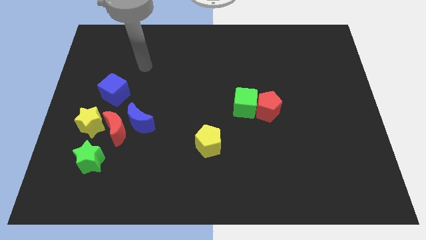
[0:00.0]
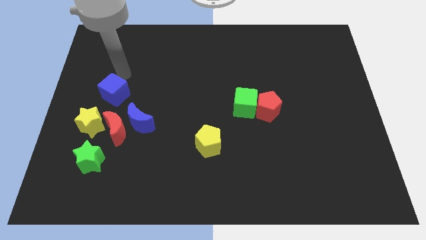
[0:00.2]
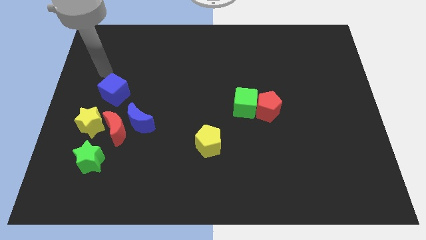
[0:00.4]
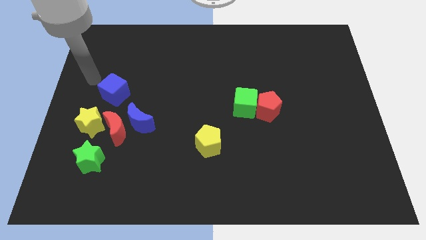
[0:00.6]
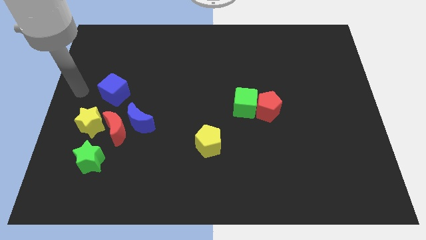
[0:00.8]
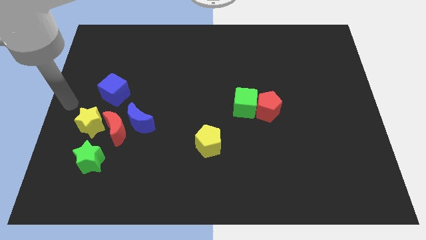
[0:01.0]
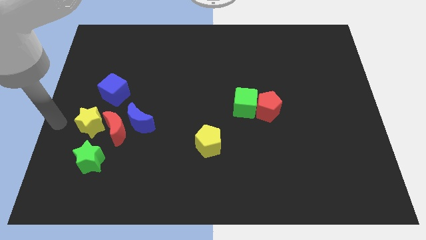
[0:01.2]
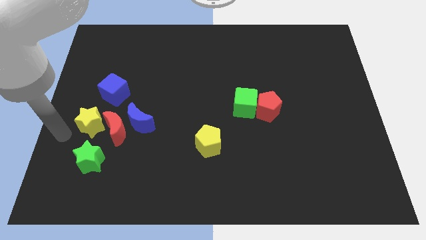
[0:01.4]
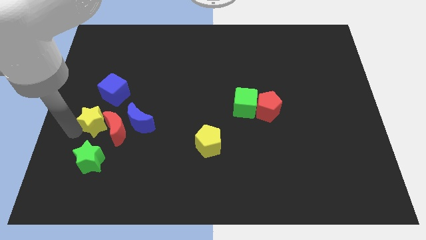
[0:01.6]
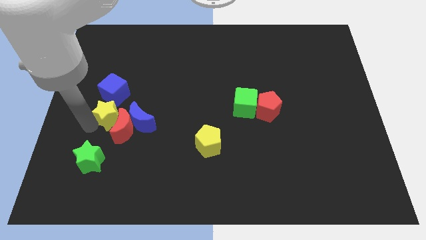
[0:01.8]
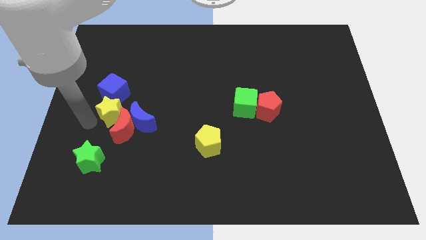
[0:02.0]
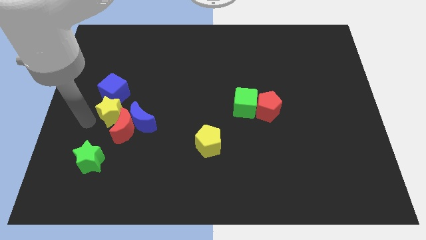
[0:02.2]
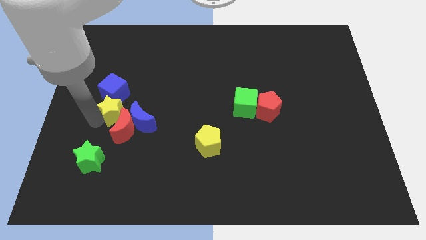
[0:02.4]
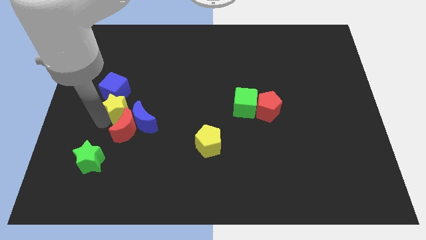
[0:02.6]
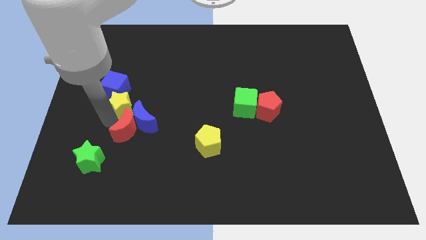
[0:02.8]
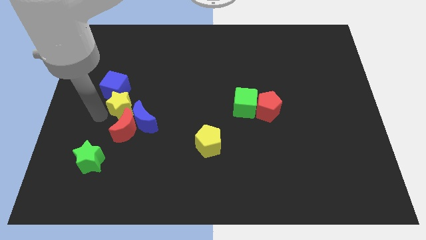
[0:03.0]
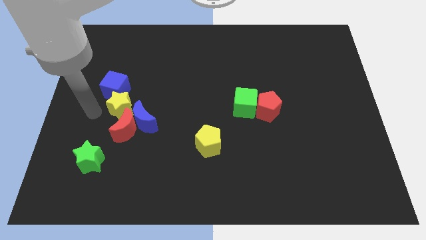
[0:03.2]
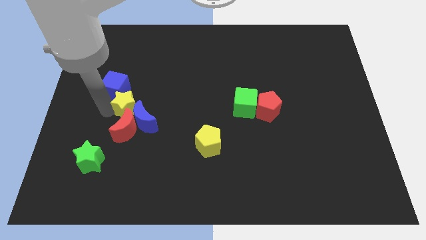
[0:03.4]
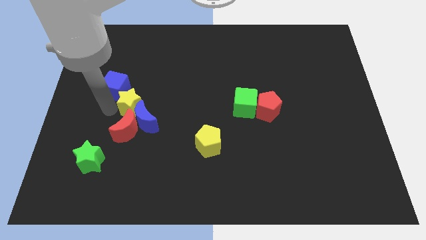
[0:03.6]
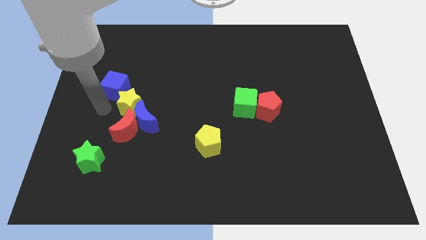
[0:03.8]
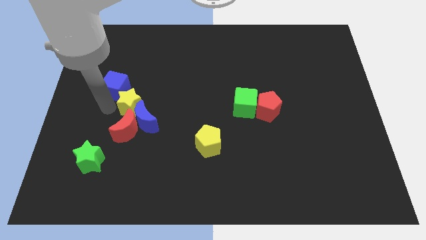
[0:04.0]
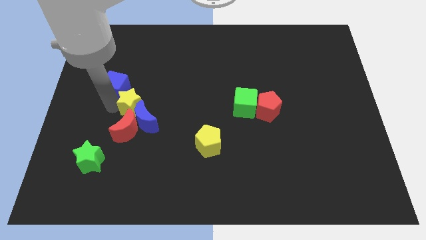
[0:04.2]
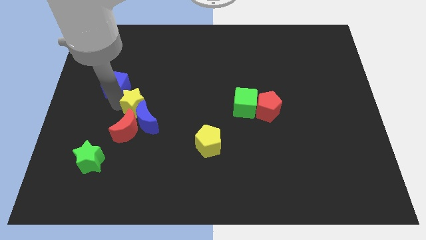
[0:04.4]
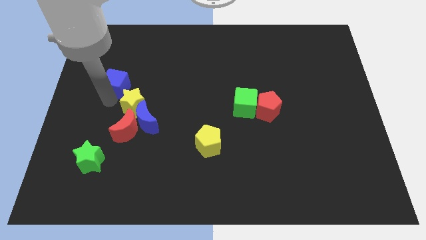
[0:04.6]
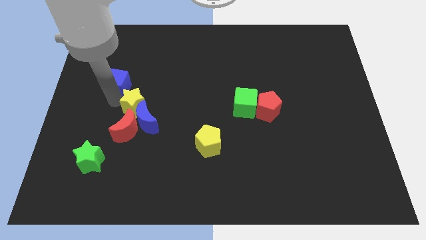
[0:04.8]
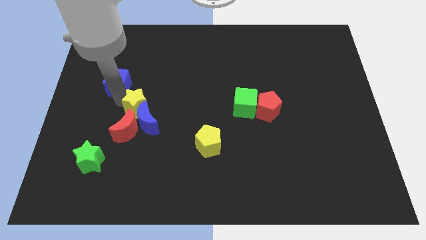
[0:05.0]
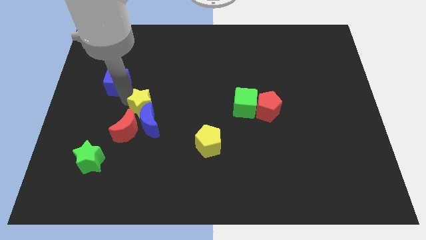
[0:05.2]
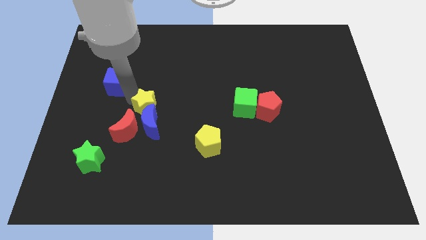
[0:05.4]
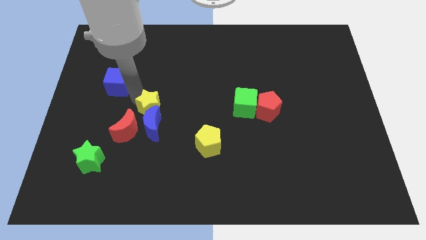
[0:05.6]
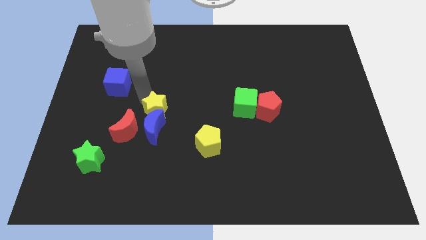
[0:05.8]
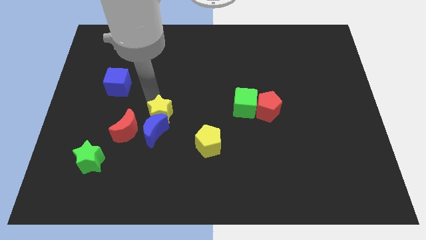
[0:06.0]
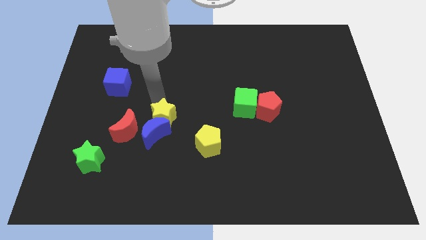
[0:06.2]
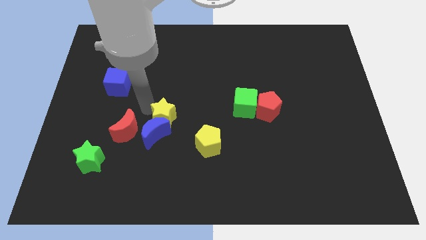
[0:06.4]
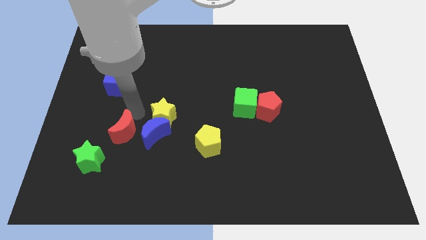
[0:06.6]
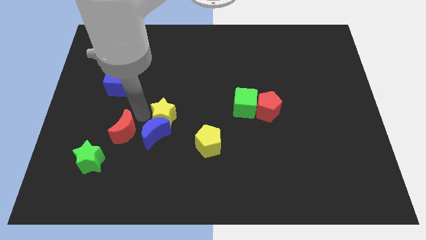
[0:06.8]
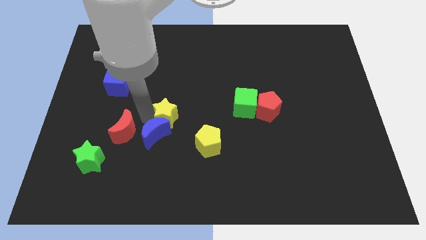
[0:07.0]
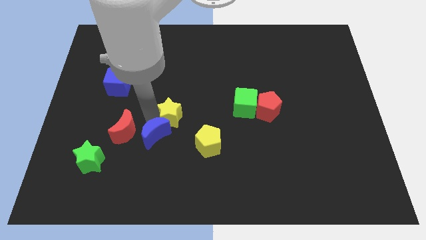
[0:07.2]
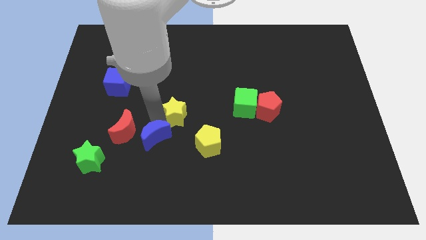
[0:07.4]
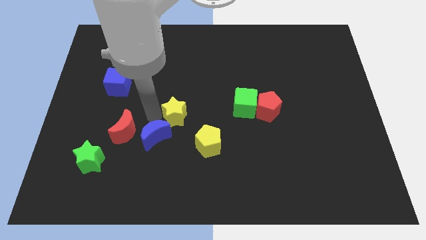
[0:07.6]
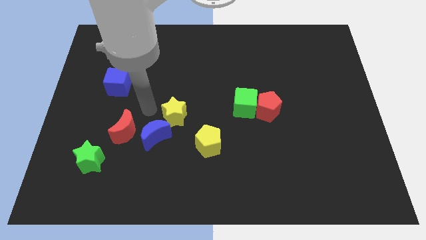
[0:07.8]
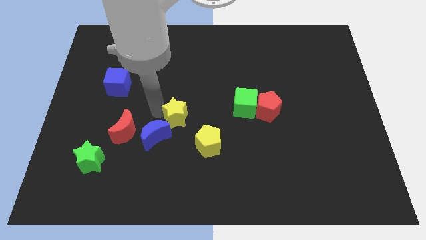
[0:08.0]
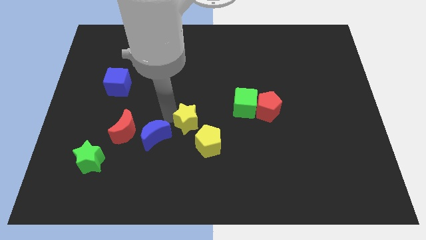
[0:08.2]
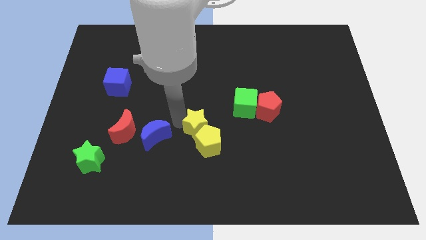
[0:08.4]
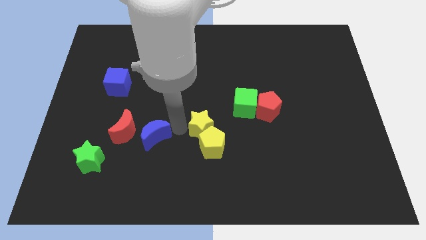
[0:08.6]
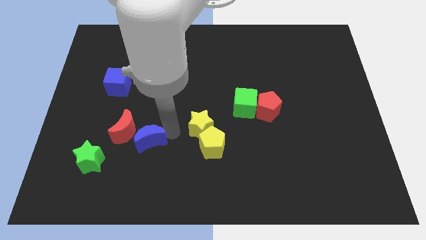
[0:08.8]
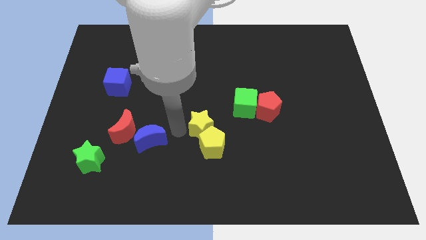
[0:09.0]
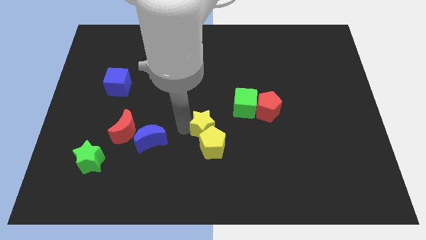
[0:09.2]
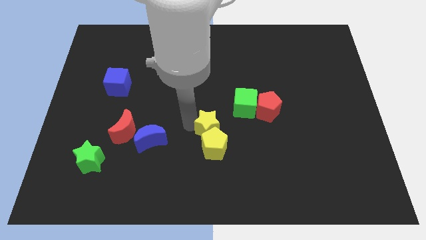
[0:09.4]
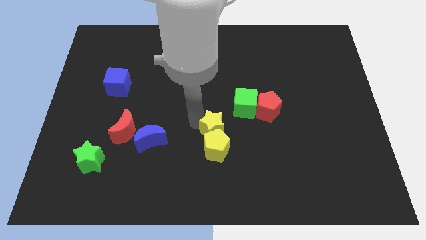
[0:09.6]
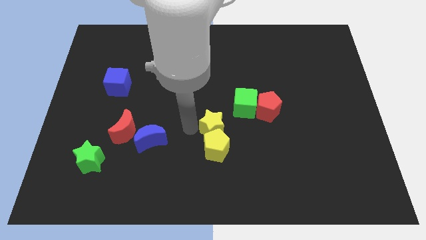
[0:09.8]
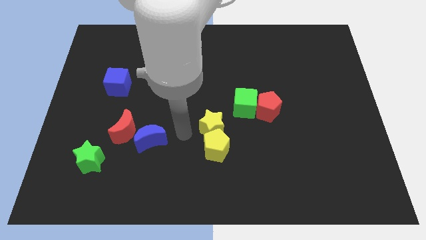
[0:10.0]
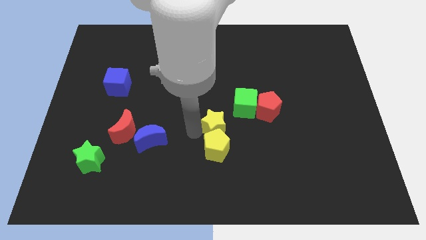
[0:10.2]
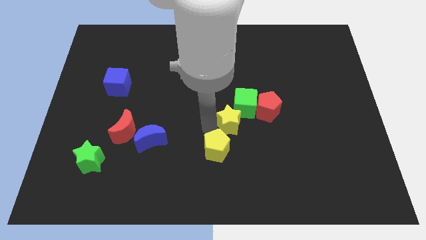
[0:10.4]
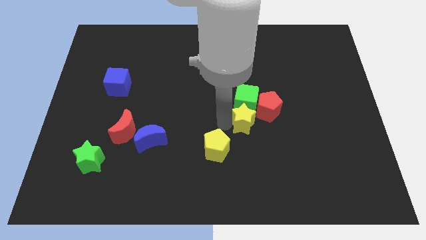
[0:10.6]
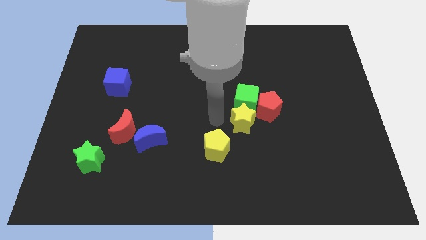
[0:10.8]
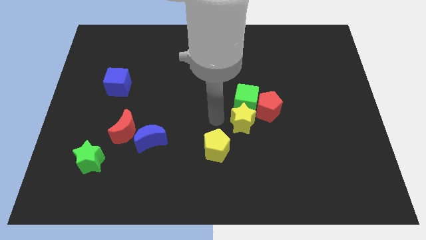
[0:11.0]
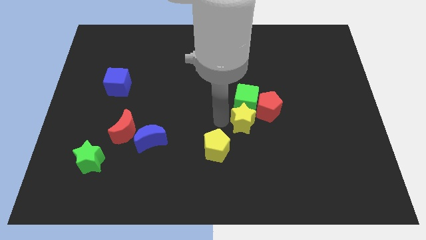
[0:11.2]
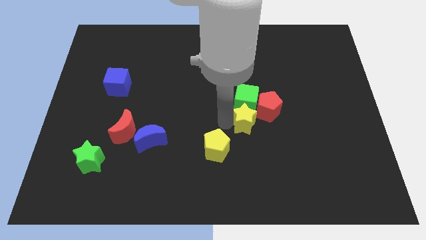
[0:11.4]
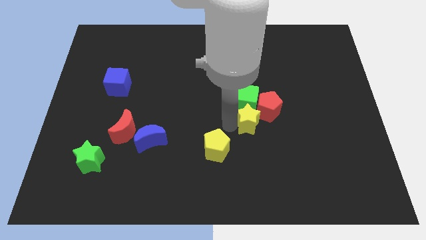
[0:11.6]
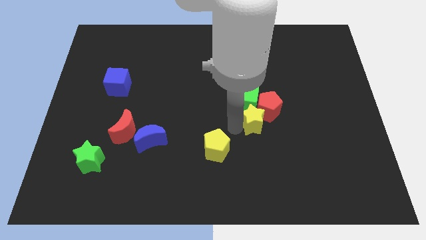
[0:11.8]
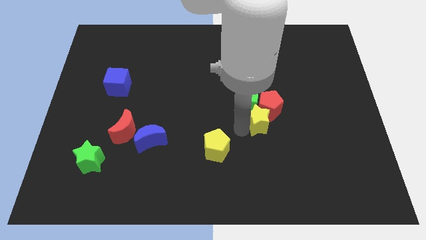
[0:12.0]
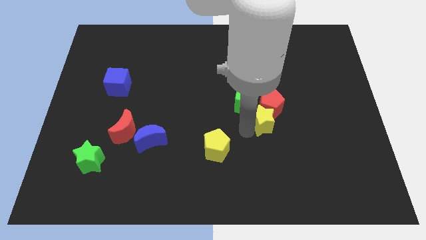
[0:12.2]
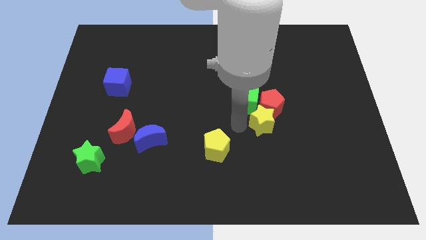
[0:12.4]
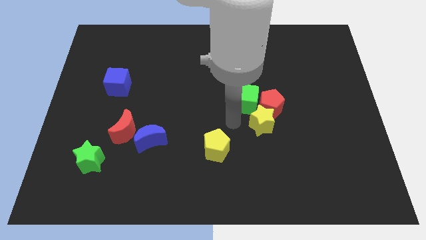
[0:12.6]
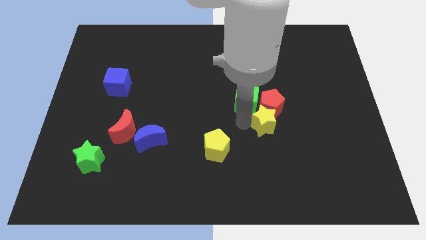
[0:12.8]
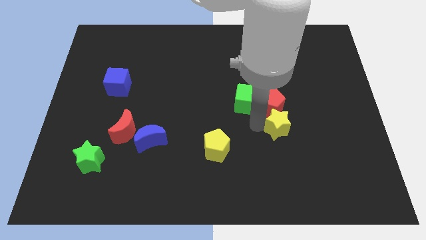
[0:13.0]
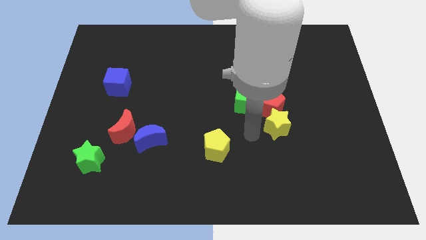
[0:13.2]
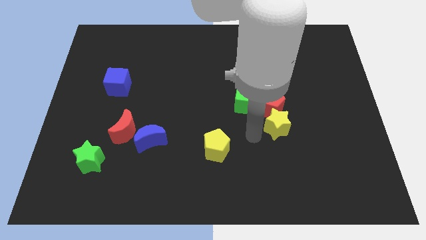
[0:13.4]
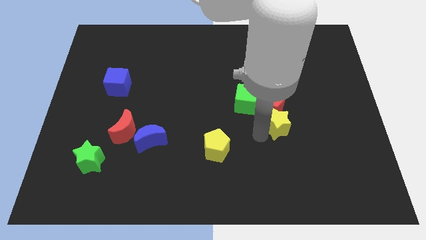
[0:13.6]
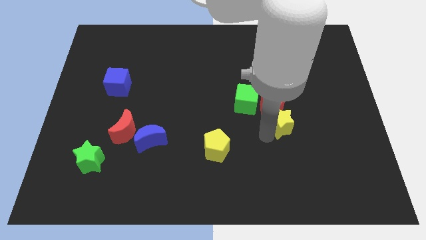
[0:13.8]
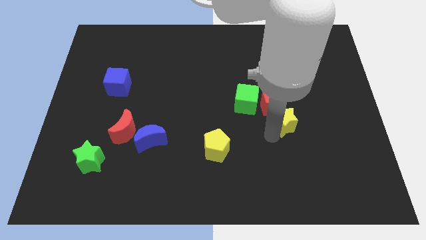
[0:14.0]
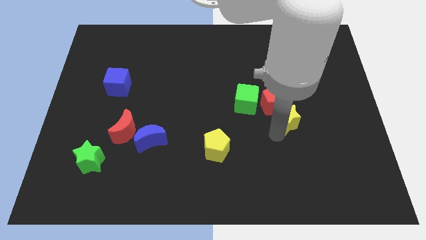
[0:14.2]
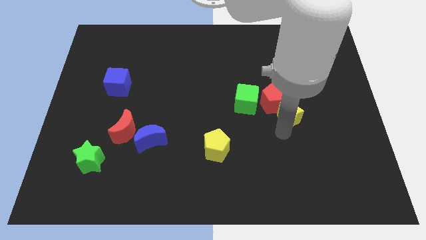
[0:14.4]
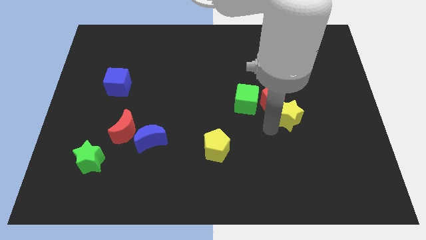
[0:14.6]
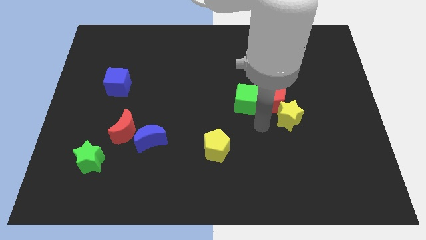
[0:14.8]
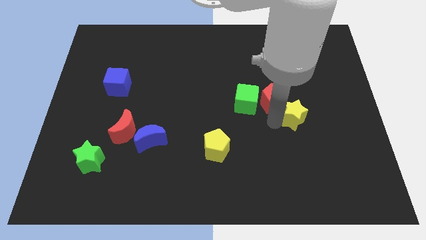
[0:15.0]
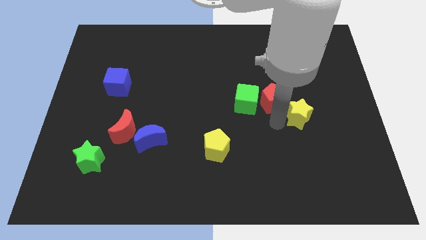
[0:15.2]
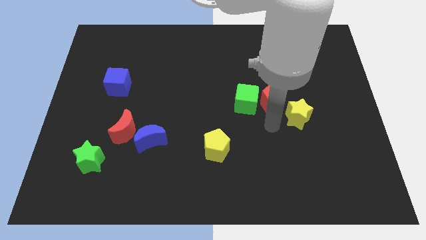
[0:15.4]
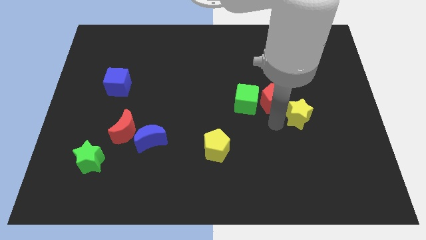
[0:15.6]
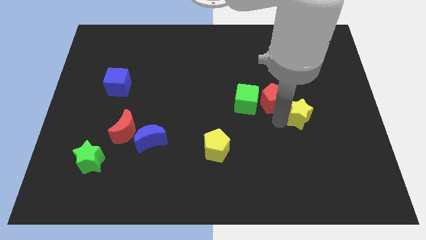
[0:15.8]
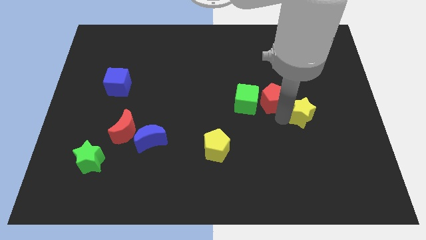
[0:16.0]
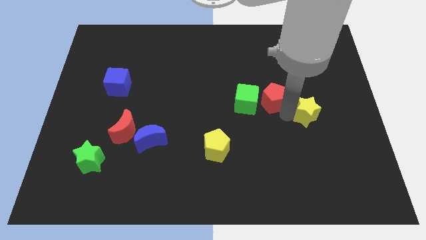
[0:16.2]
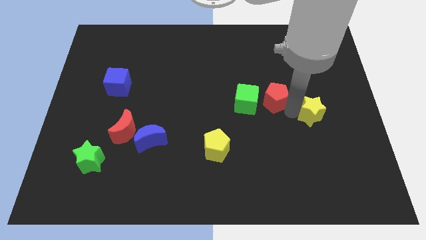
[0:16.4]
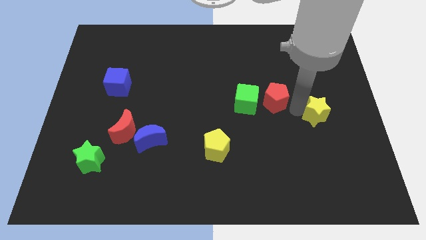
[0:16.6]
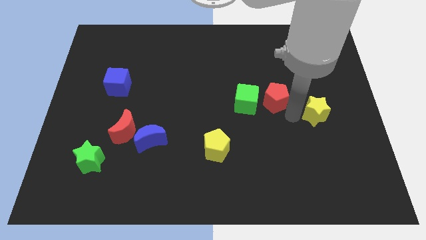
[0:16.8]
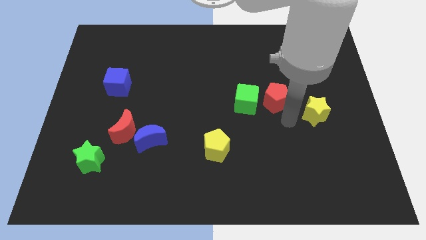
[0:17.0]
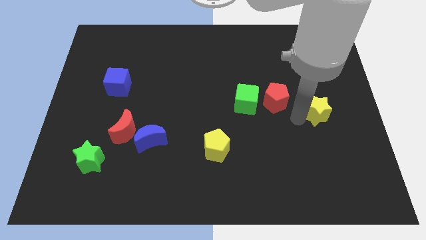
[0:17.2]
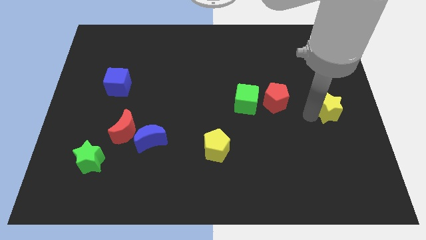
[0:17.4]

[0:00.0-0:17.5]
move the yellow star to the center right
